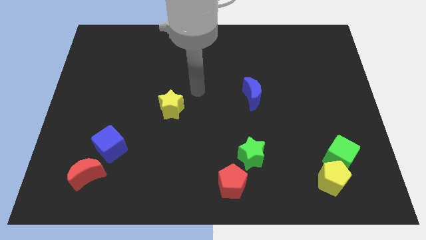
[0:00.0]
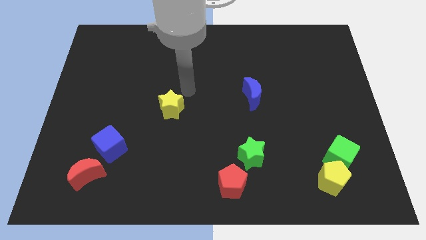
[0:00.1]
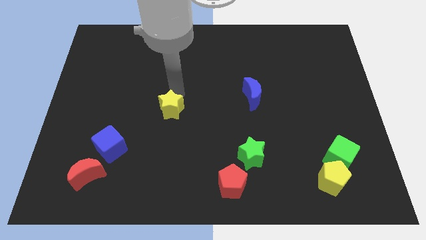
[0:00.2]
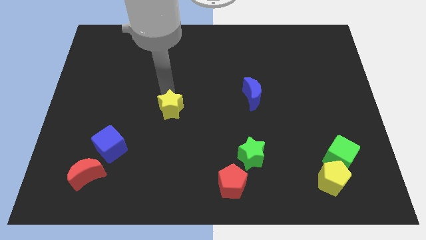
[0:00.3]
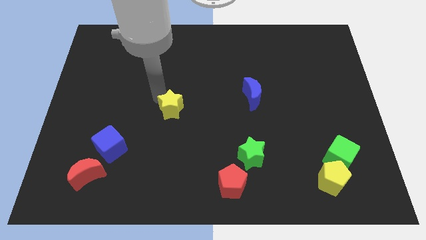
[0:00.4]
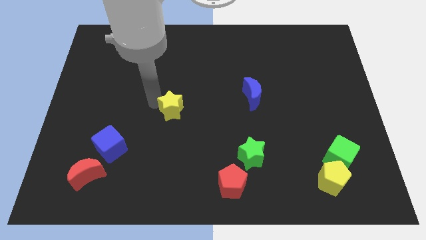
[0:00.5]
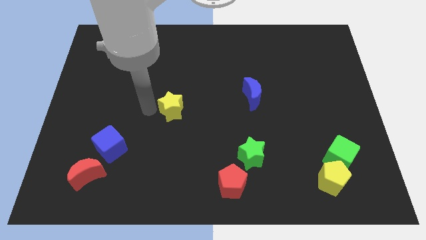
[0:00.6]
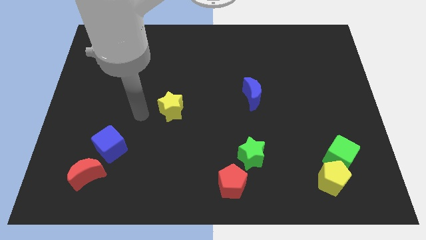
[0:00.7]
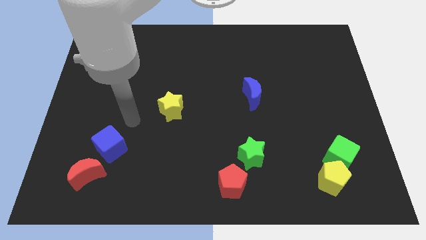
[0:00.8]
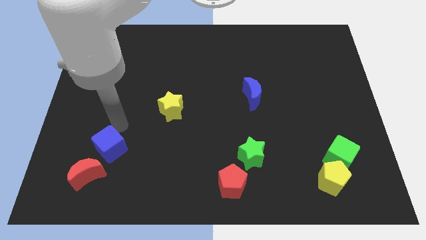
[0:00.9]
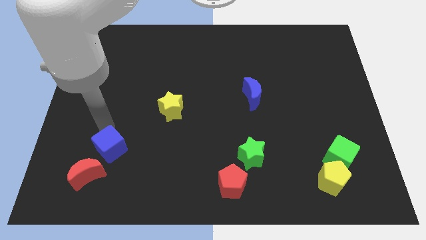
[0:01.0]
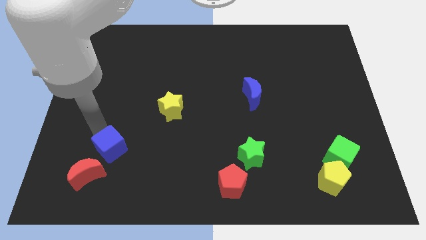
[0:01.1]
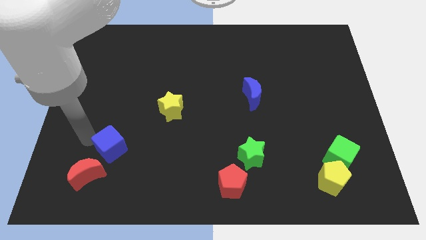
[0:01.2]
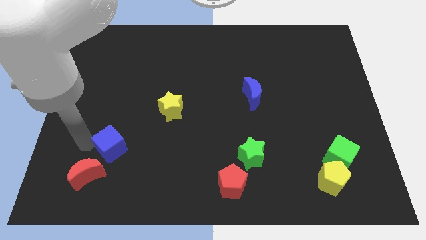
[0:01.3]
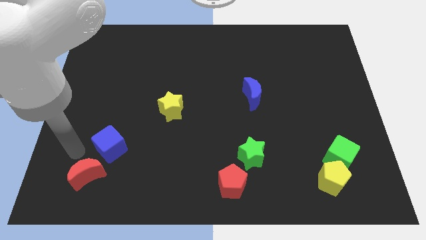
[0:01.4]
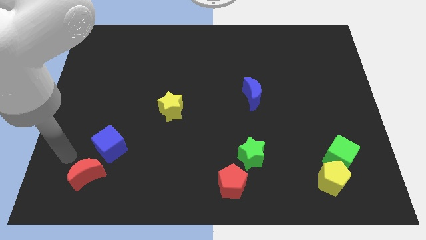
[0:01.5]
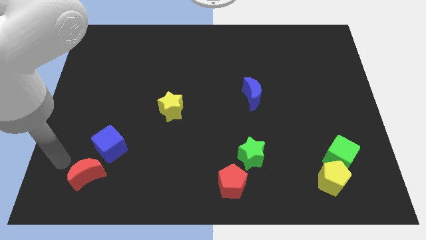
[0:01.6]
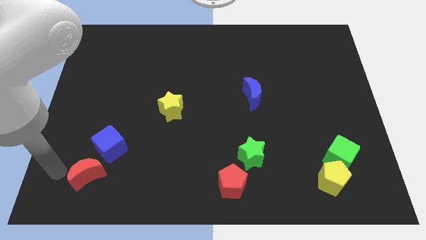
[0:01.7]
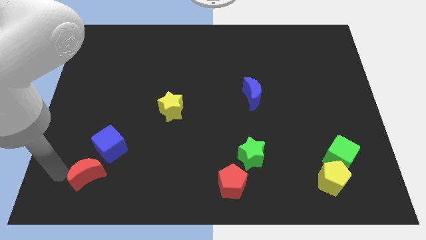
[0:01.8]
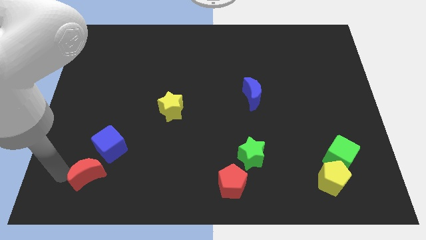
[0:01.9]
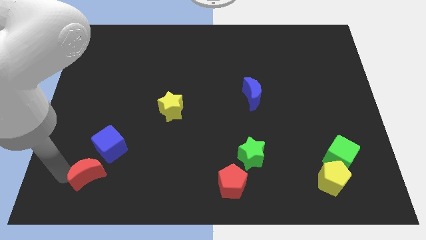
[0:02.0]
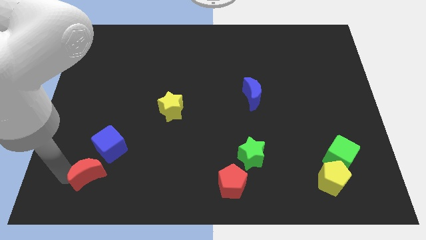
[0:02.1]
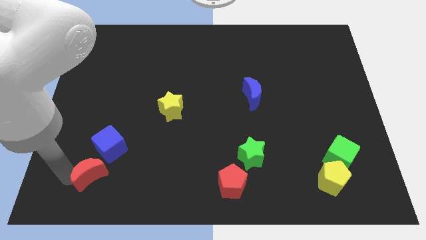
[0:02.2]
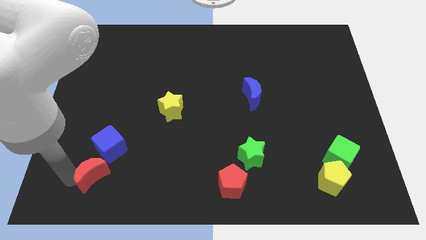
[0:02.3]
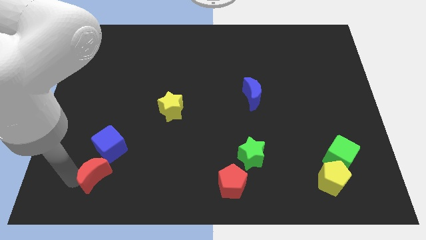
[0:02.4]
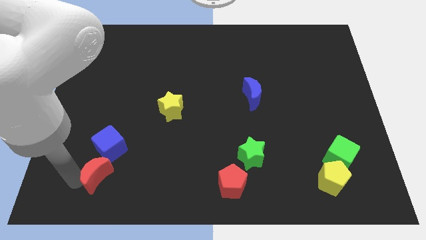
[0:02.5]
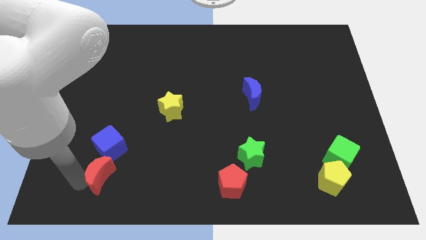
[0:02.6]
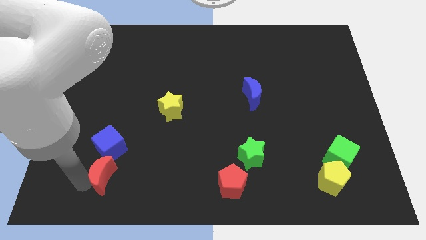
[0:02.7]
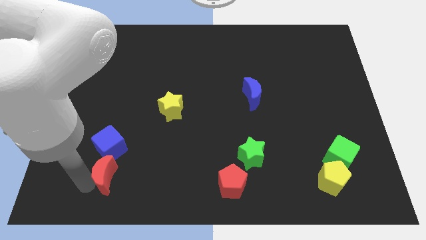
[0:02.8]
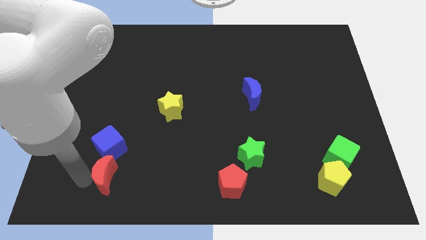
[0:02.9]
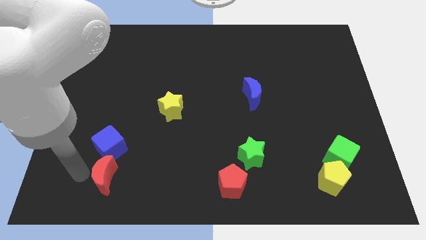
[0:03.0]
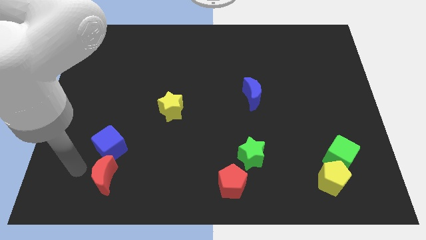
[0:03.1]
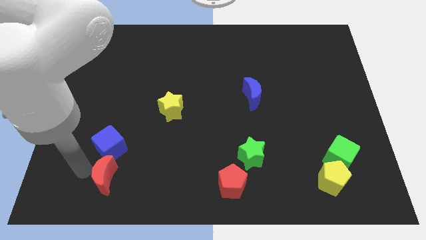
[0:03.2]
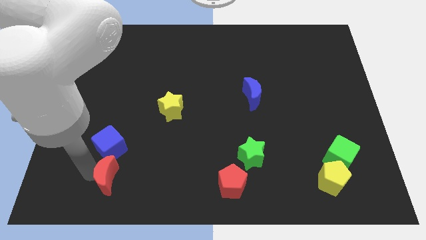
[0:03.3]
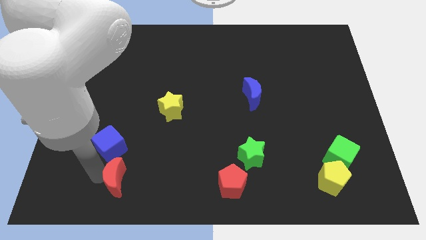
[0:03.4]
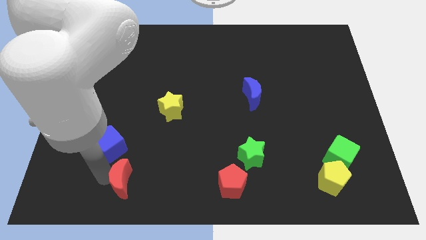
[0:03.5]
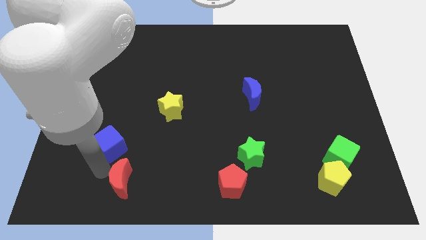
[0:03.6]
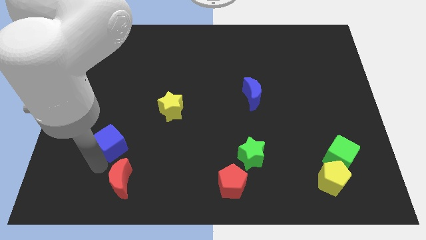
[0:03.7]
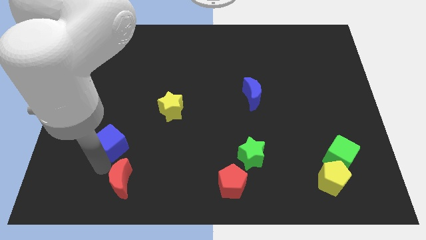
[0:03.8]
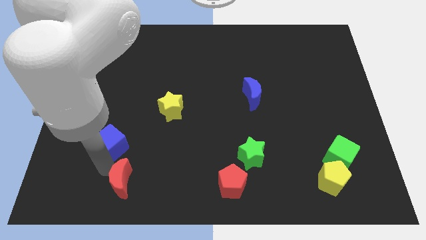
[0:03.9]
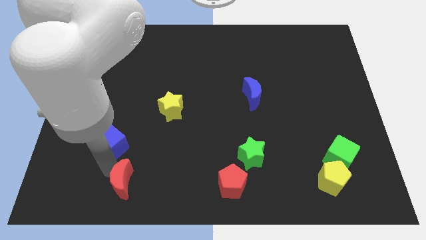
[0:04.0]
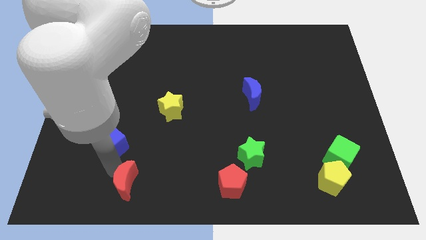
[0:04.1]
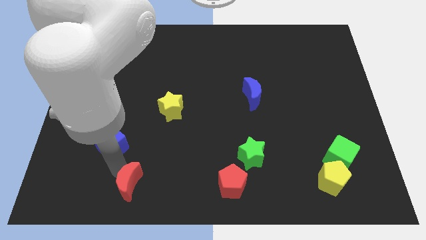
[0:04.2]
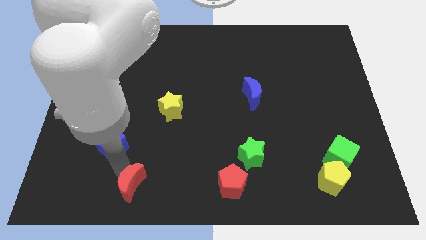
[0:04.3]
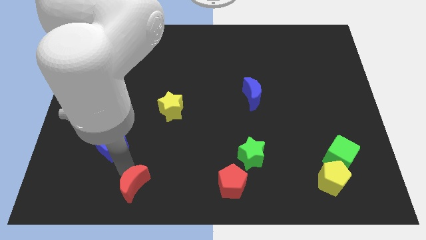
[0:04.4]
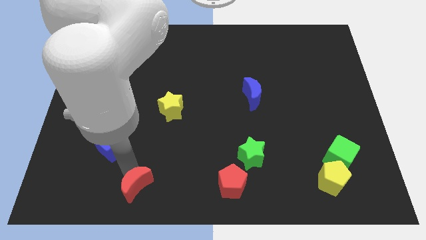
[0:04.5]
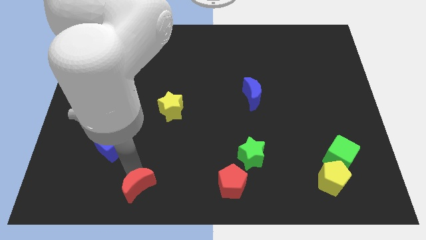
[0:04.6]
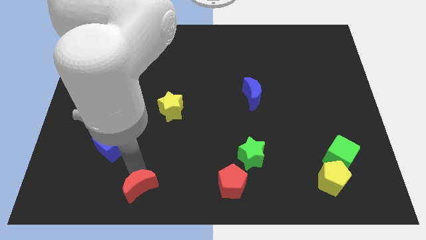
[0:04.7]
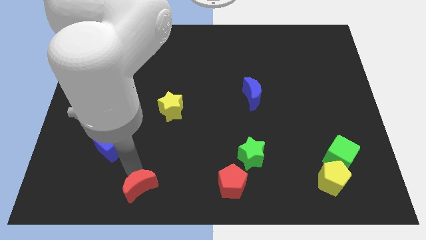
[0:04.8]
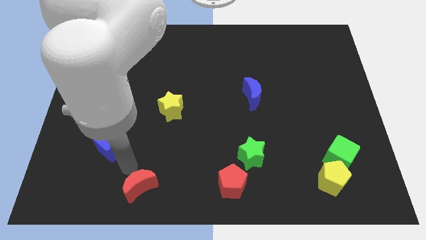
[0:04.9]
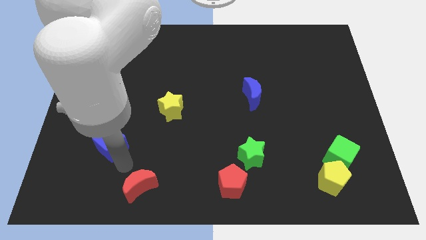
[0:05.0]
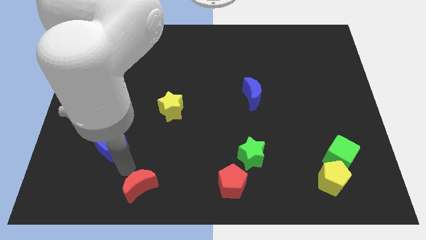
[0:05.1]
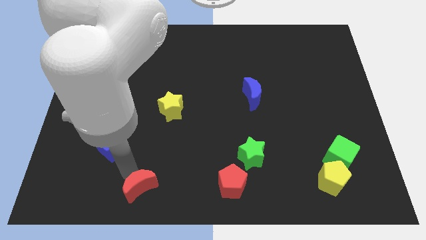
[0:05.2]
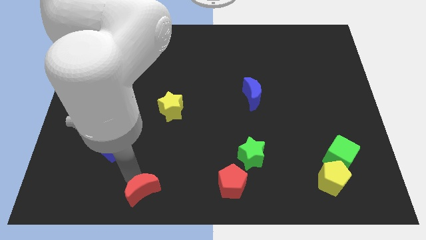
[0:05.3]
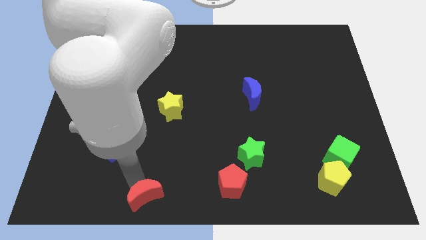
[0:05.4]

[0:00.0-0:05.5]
slide the red moon to the bottom
